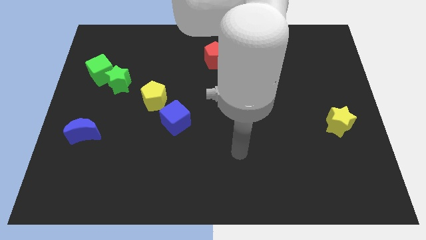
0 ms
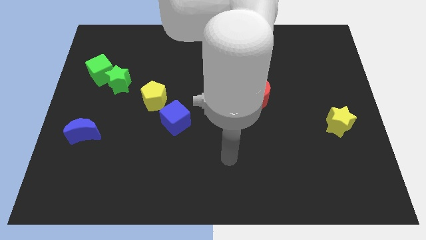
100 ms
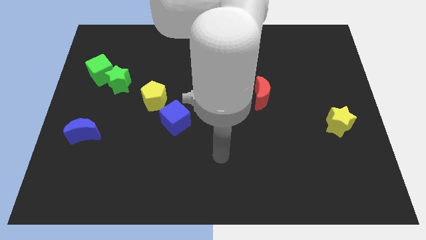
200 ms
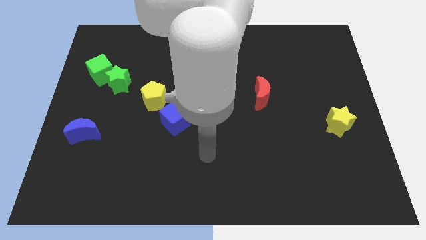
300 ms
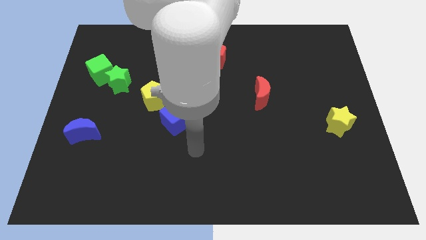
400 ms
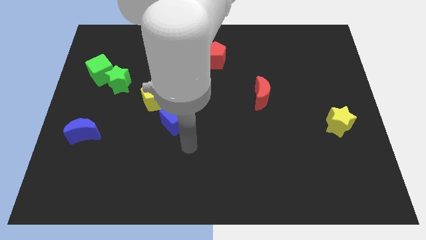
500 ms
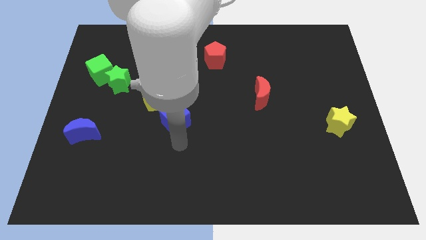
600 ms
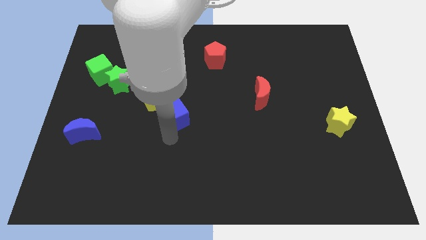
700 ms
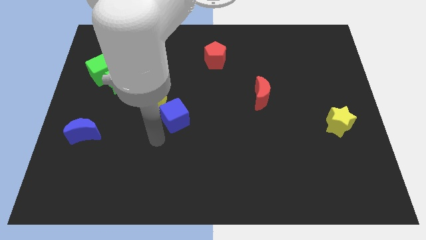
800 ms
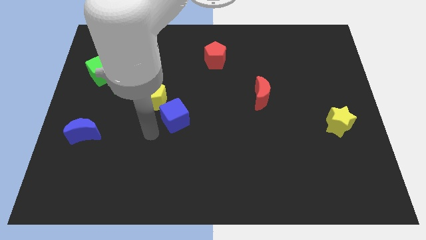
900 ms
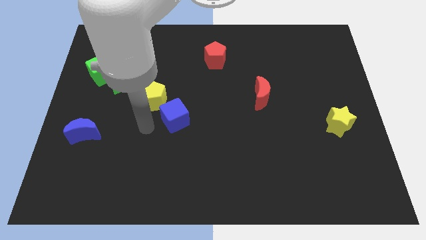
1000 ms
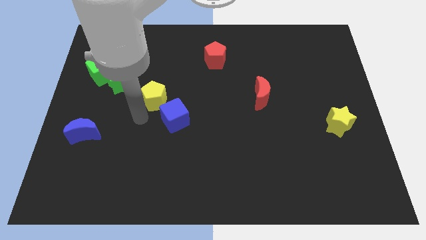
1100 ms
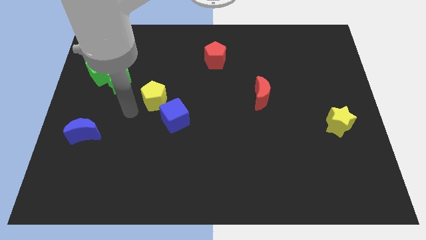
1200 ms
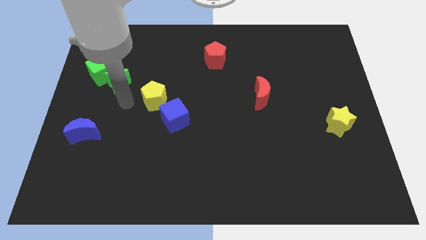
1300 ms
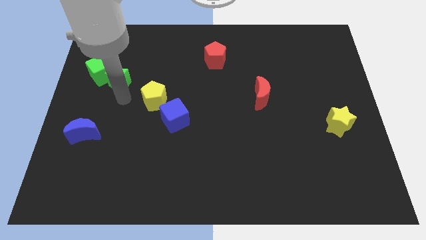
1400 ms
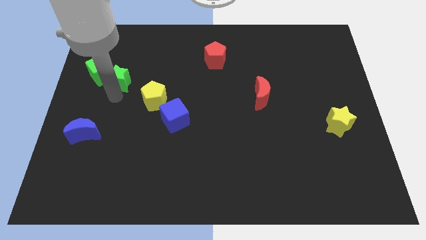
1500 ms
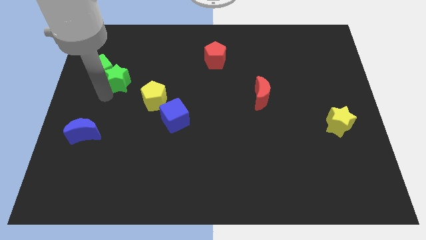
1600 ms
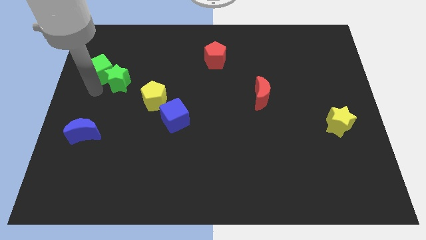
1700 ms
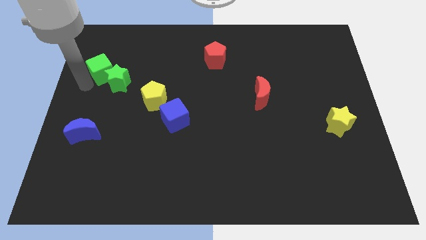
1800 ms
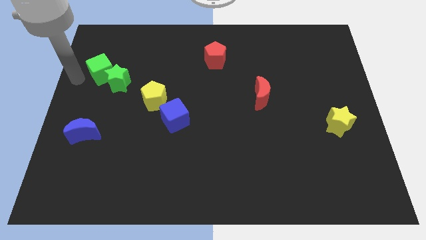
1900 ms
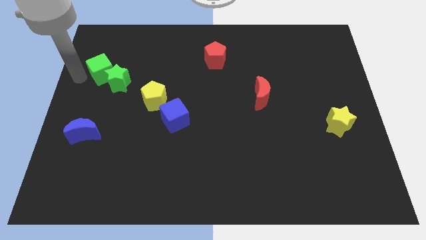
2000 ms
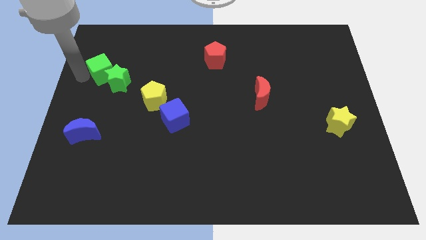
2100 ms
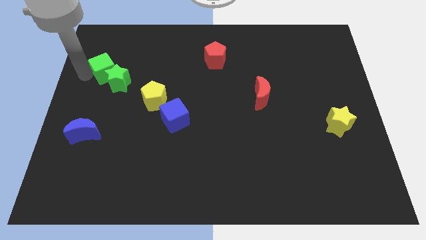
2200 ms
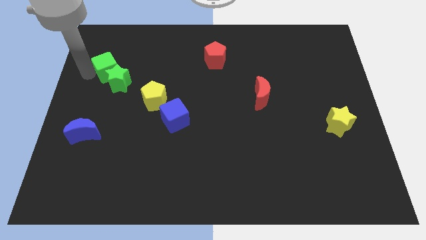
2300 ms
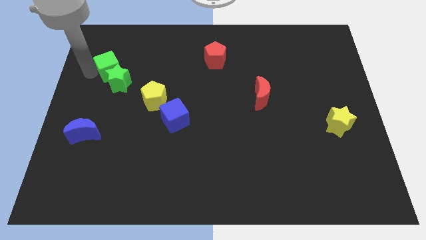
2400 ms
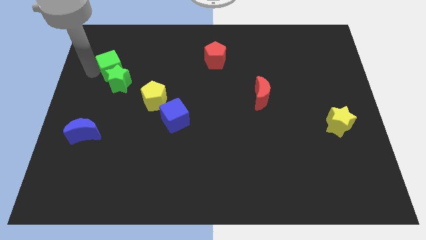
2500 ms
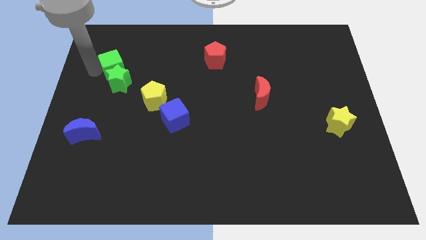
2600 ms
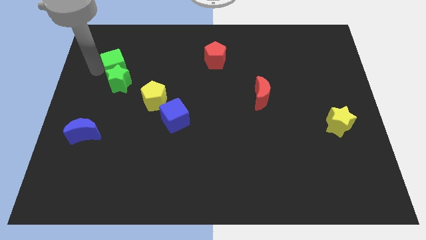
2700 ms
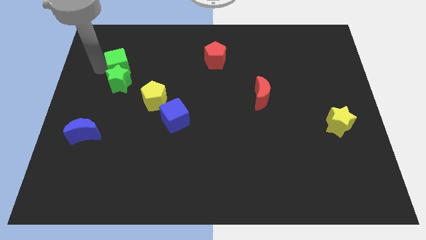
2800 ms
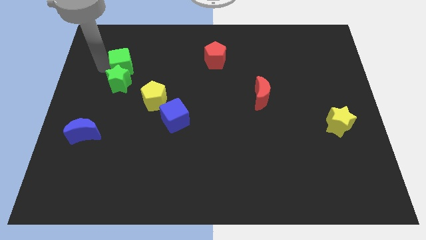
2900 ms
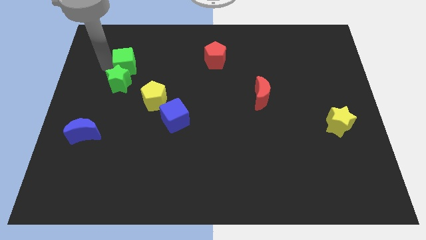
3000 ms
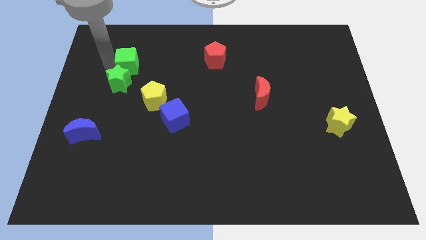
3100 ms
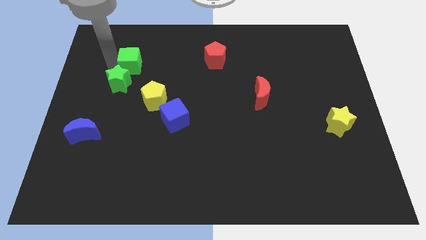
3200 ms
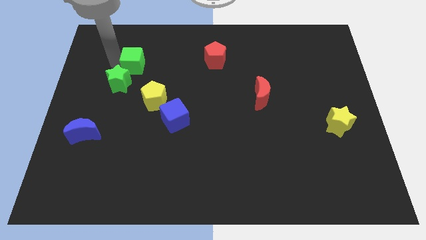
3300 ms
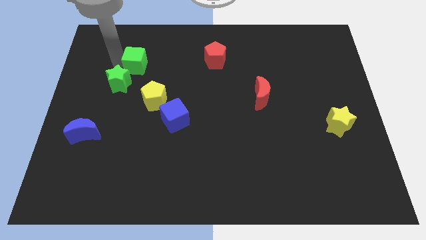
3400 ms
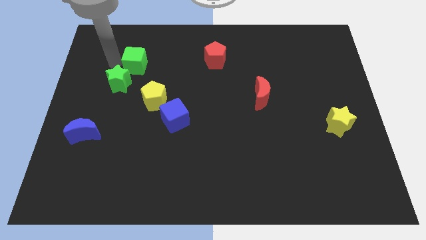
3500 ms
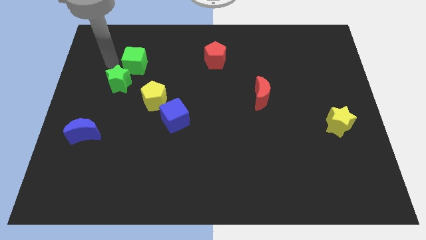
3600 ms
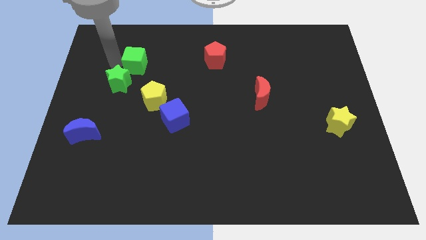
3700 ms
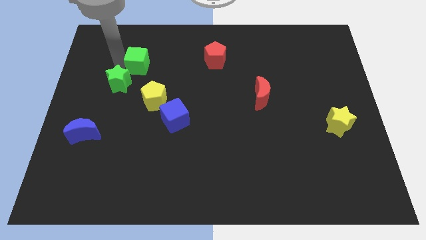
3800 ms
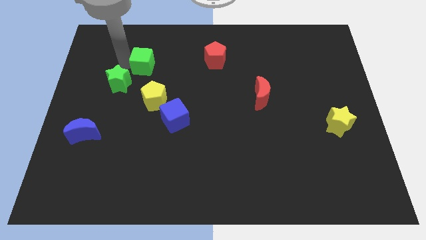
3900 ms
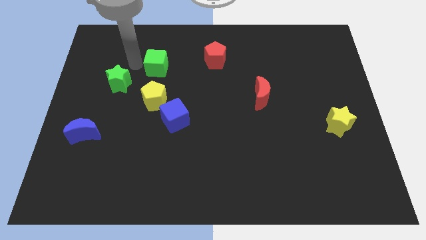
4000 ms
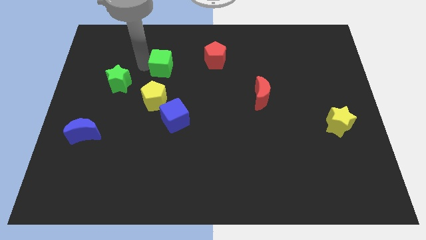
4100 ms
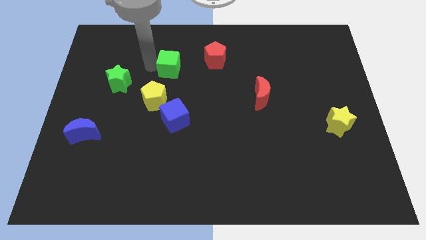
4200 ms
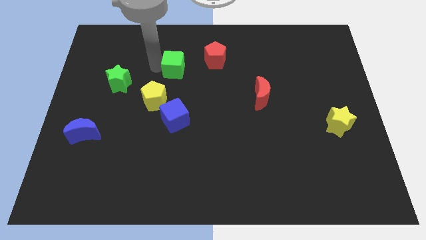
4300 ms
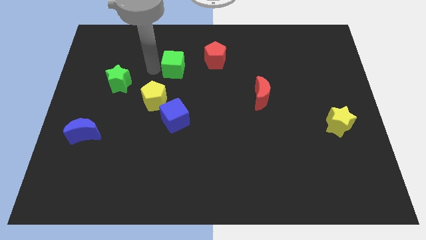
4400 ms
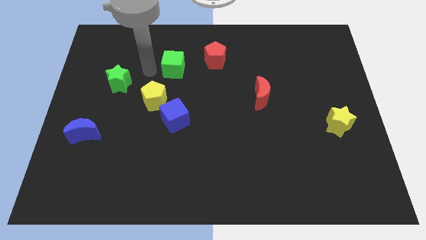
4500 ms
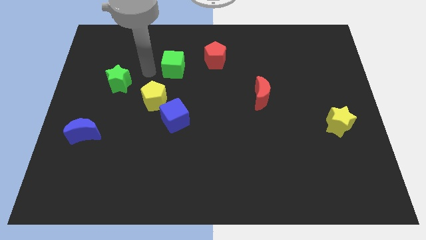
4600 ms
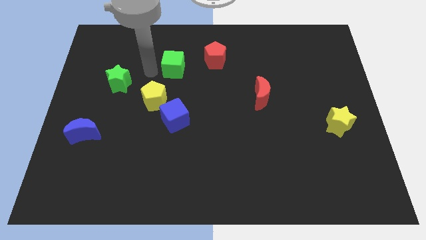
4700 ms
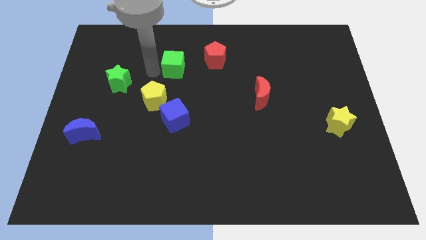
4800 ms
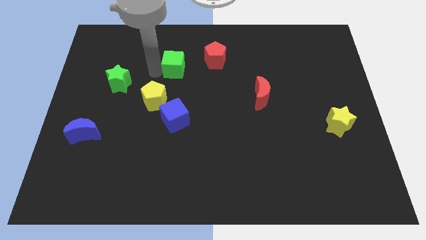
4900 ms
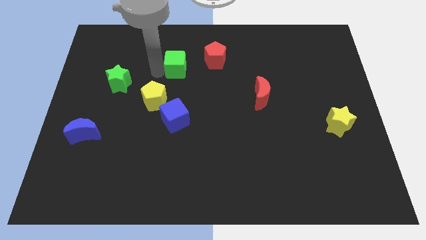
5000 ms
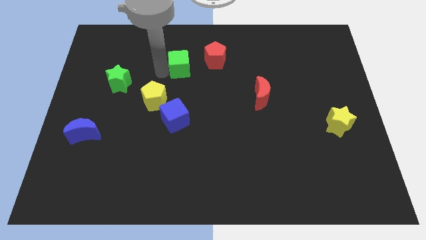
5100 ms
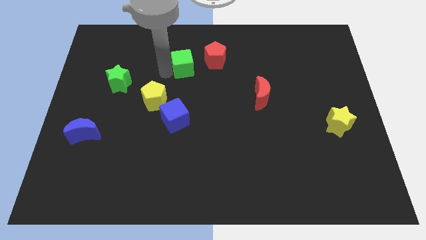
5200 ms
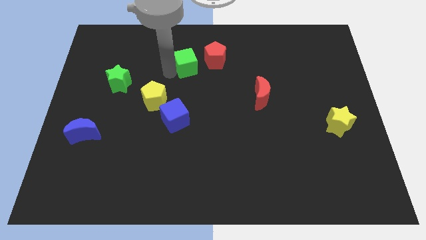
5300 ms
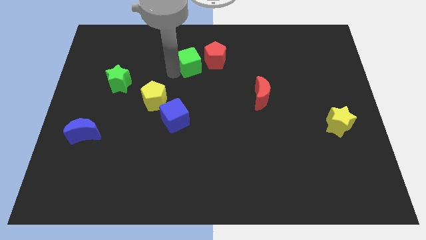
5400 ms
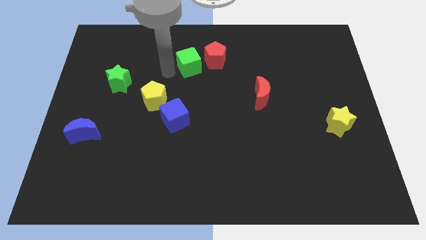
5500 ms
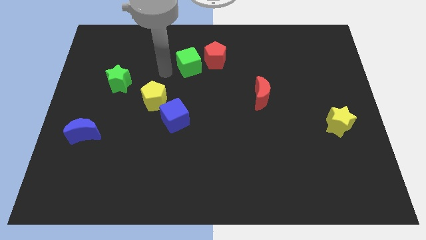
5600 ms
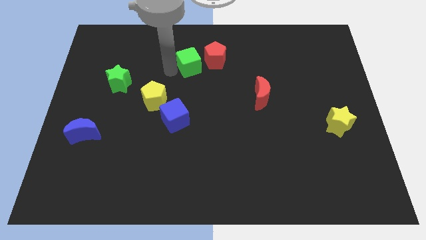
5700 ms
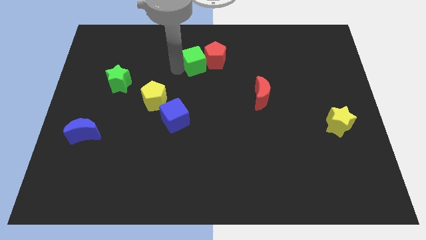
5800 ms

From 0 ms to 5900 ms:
move the green cube to the red pentagon

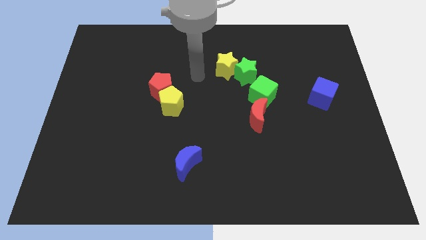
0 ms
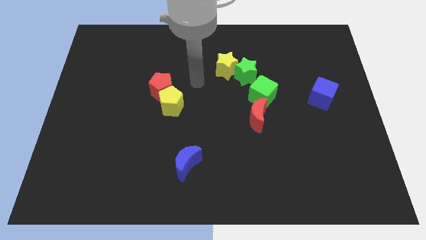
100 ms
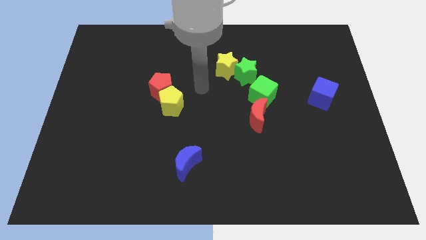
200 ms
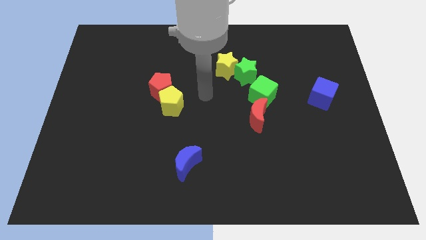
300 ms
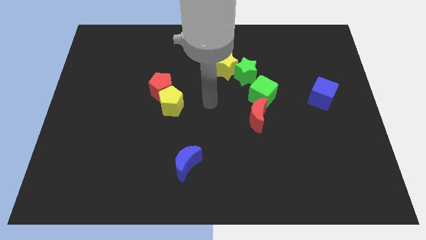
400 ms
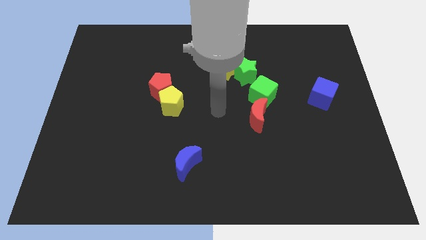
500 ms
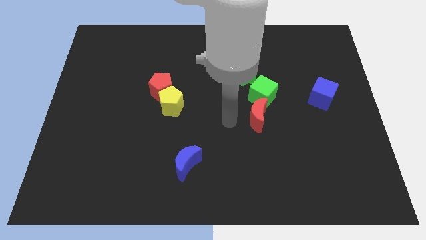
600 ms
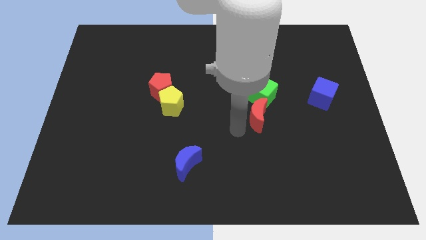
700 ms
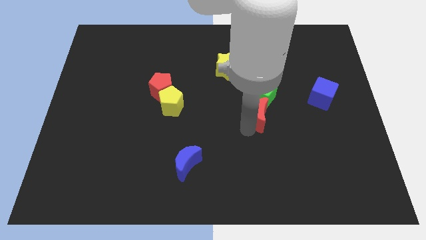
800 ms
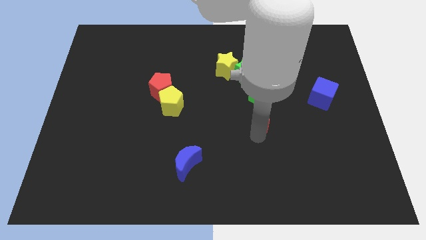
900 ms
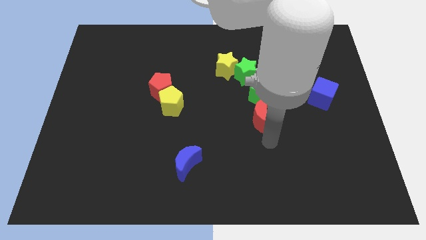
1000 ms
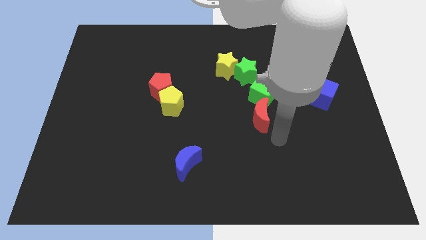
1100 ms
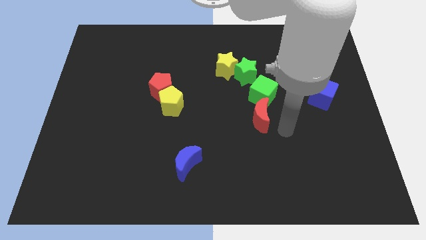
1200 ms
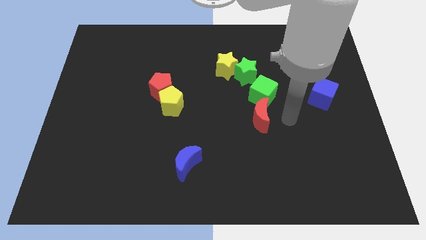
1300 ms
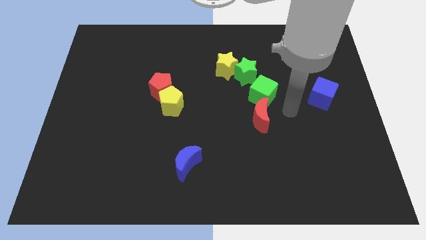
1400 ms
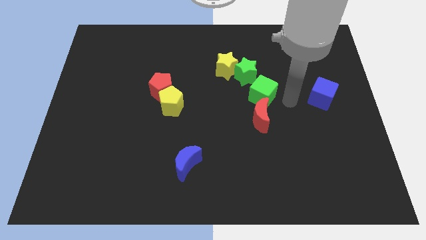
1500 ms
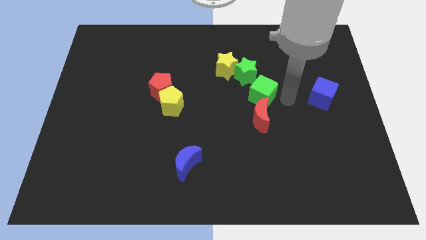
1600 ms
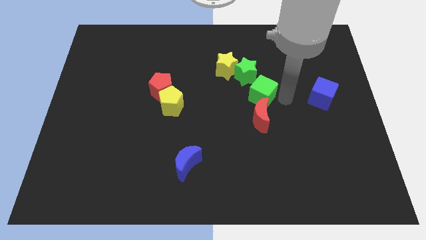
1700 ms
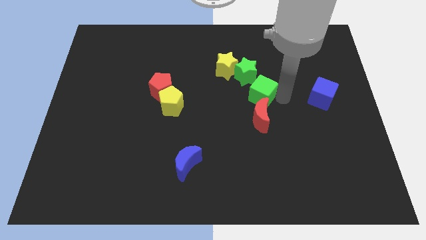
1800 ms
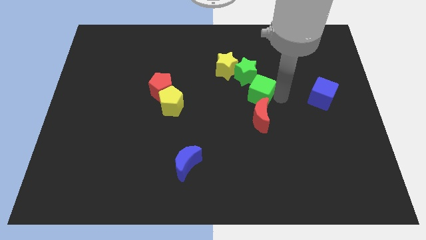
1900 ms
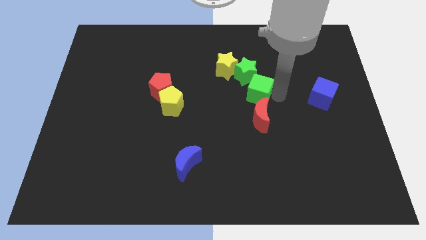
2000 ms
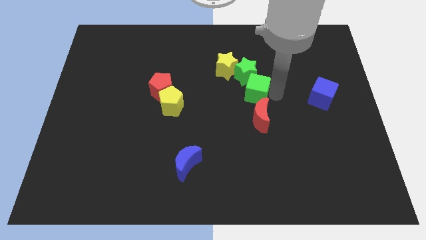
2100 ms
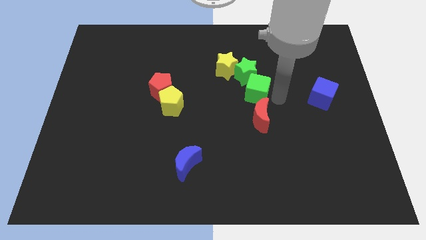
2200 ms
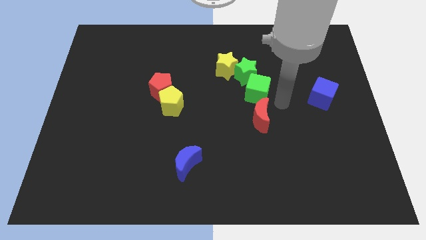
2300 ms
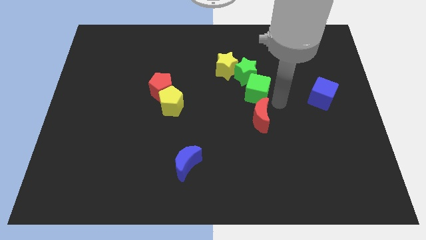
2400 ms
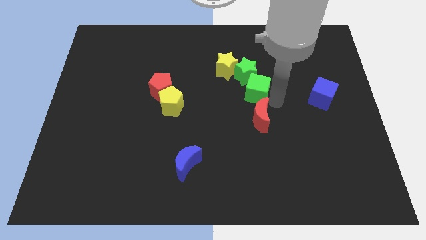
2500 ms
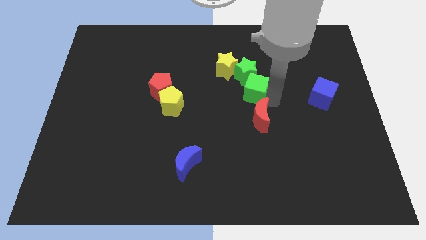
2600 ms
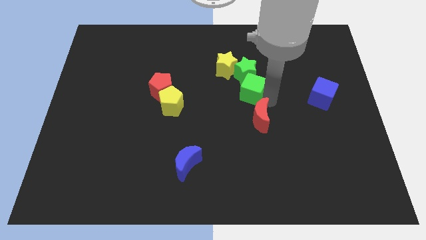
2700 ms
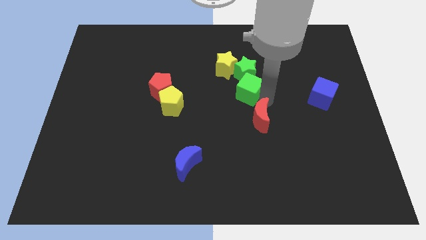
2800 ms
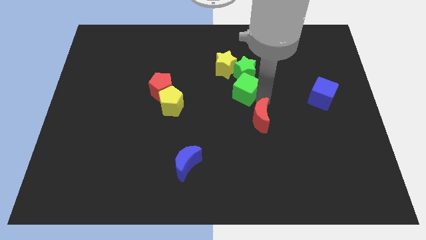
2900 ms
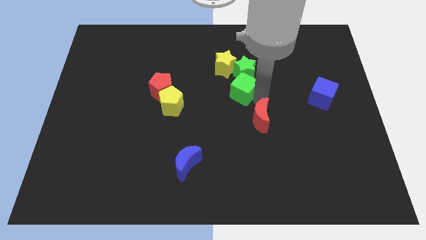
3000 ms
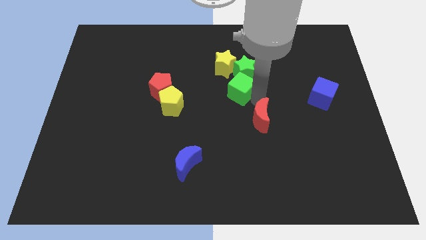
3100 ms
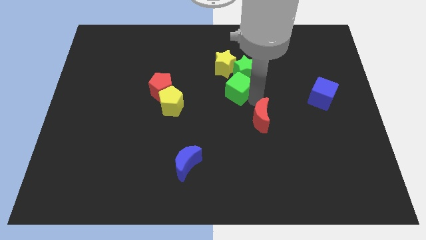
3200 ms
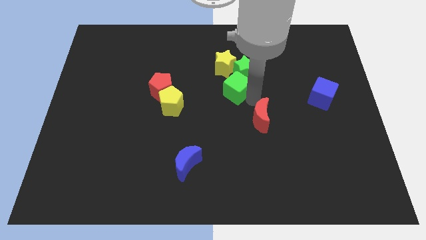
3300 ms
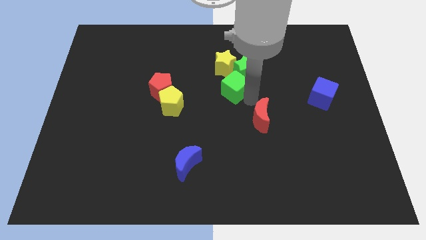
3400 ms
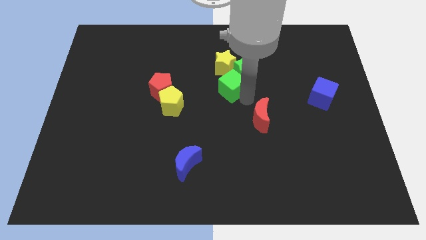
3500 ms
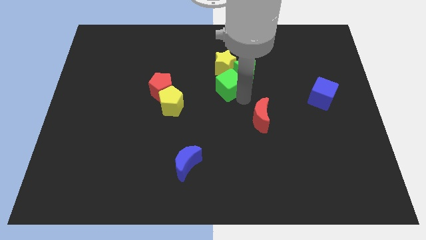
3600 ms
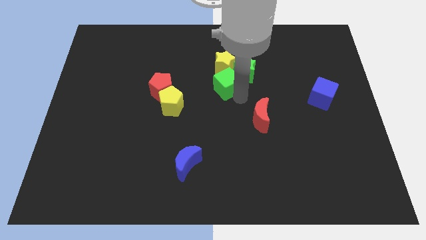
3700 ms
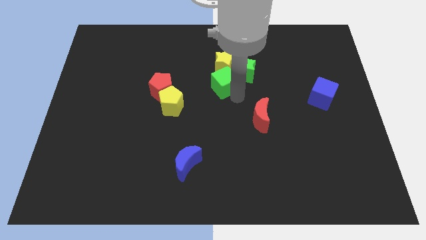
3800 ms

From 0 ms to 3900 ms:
push the green cube to the yellow star
